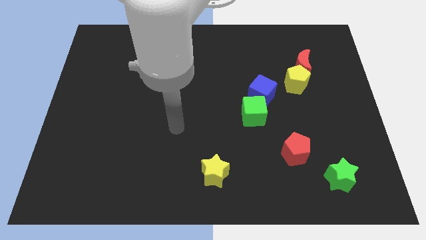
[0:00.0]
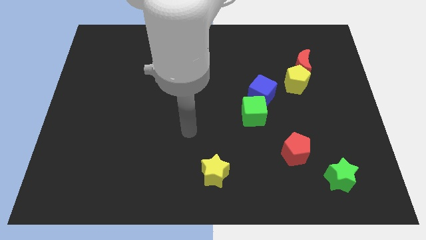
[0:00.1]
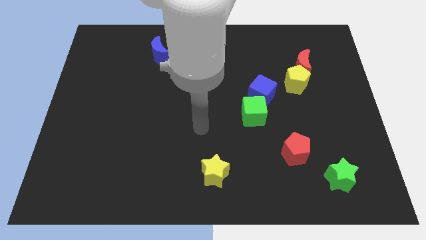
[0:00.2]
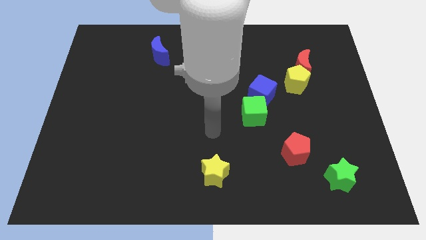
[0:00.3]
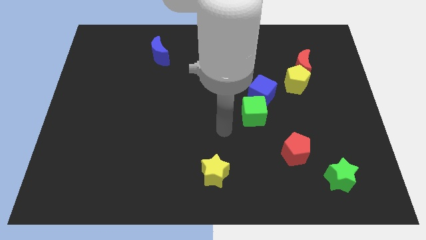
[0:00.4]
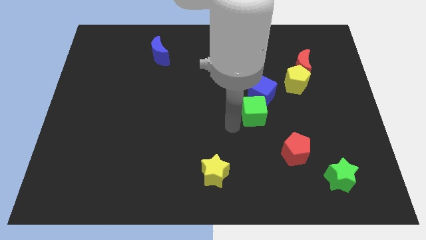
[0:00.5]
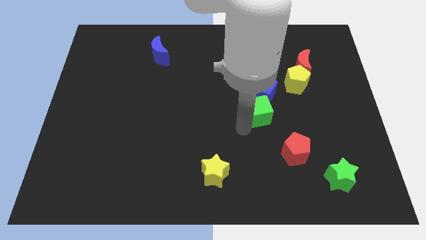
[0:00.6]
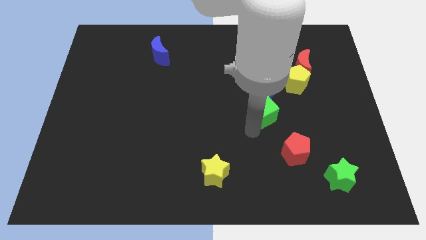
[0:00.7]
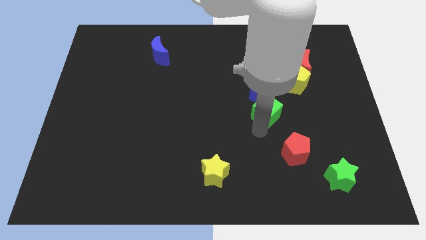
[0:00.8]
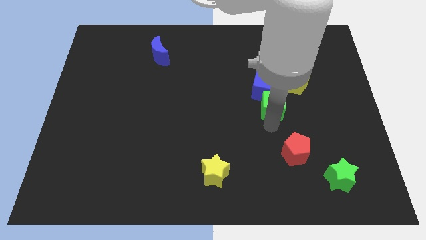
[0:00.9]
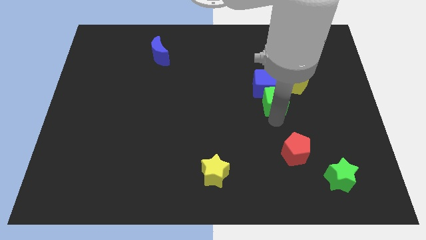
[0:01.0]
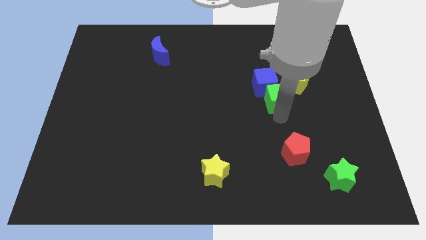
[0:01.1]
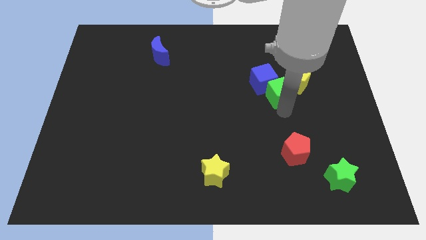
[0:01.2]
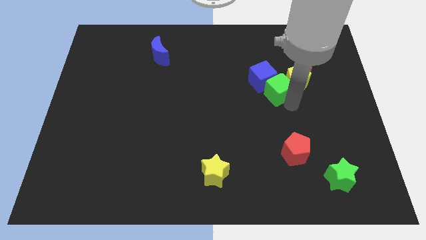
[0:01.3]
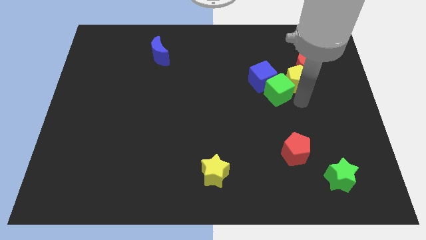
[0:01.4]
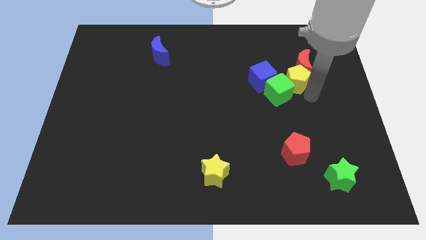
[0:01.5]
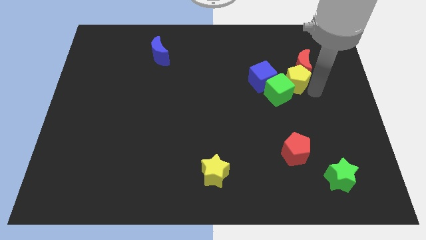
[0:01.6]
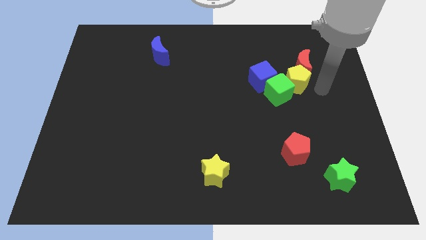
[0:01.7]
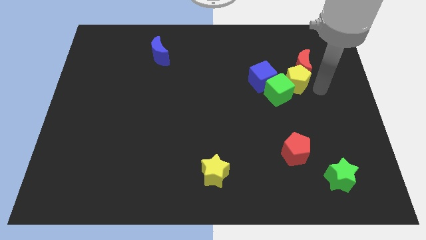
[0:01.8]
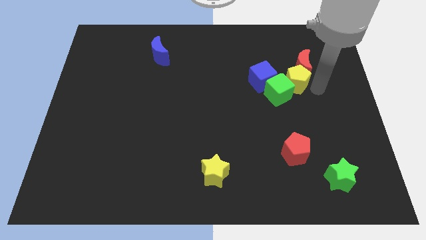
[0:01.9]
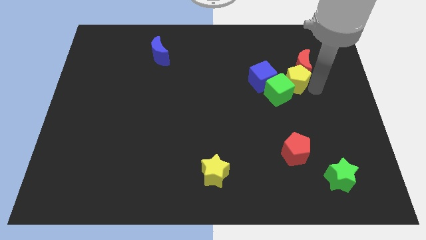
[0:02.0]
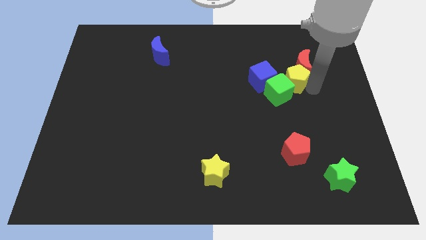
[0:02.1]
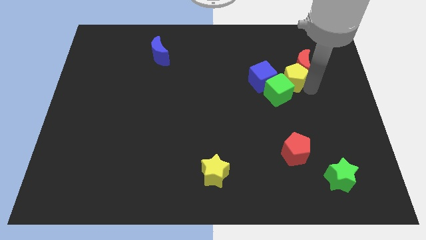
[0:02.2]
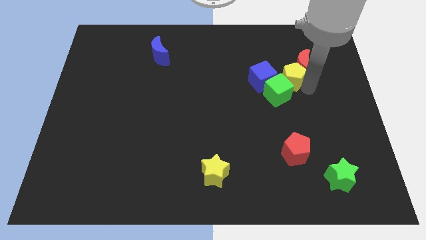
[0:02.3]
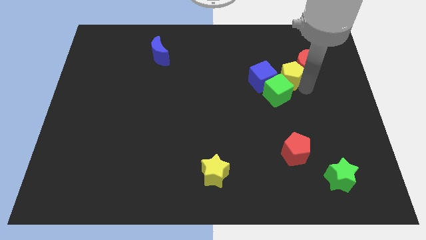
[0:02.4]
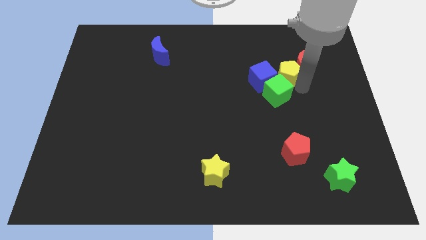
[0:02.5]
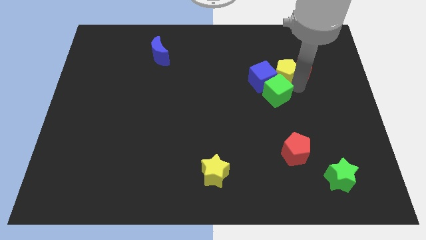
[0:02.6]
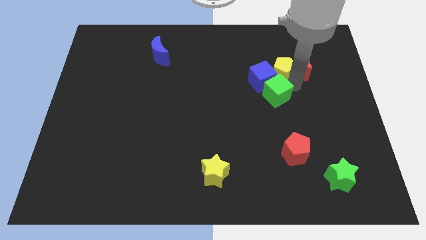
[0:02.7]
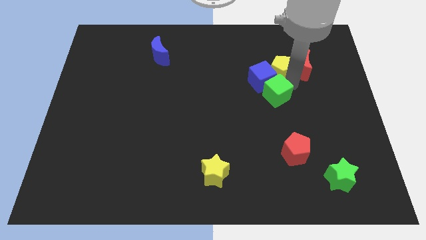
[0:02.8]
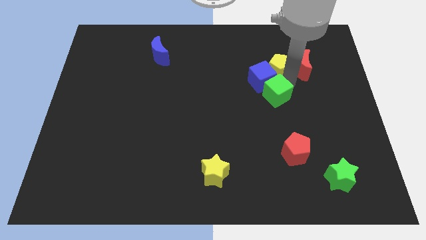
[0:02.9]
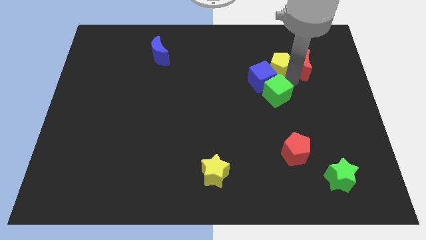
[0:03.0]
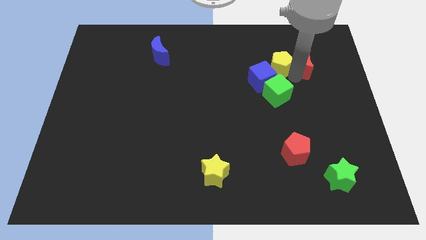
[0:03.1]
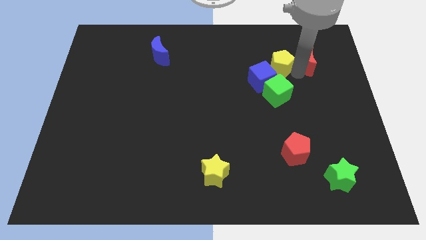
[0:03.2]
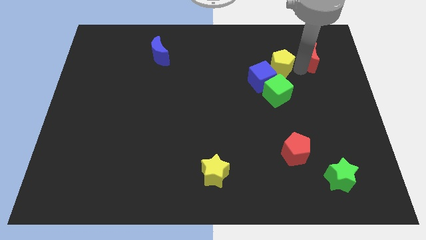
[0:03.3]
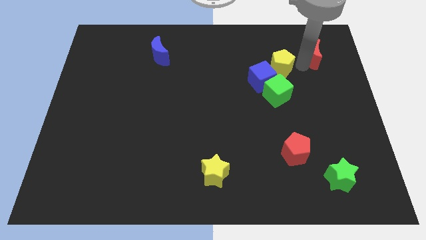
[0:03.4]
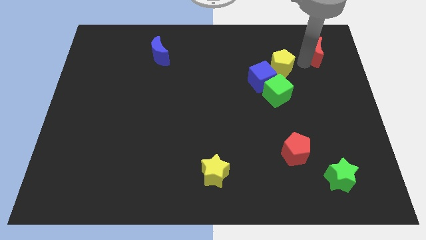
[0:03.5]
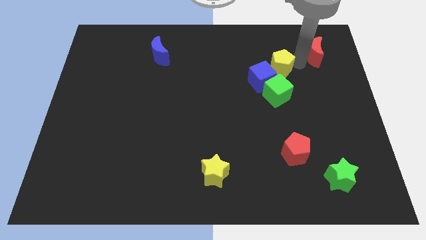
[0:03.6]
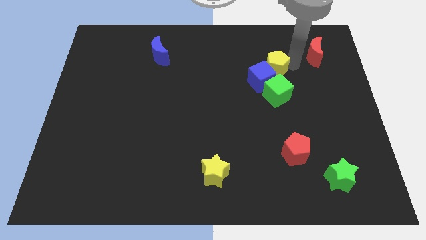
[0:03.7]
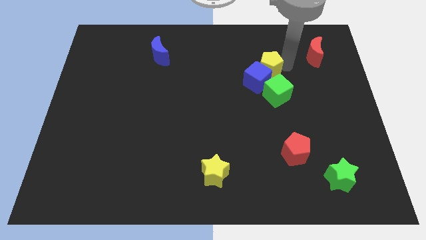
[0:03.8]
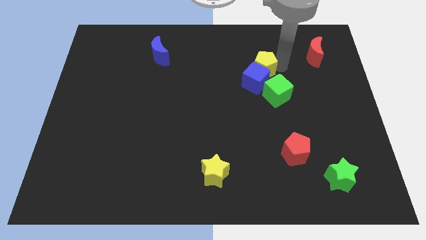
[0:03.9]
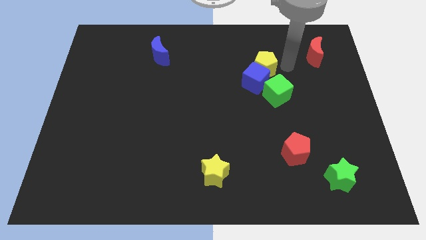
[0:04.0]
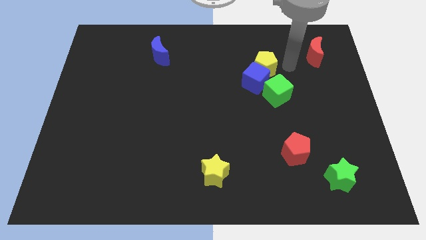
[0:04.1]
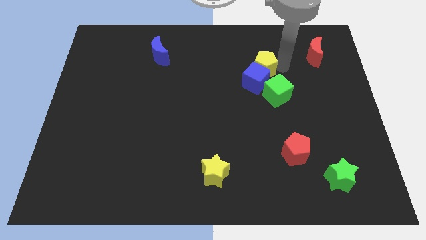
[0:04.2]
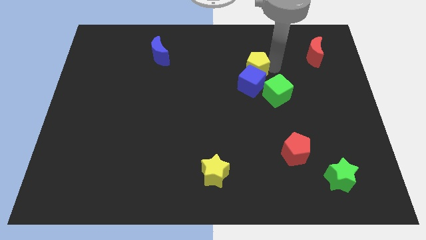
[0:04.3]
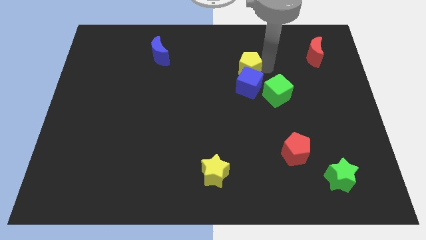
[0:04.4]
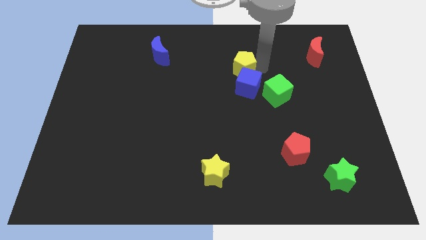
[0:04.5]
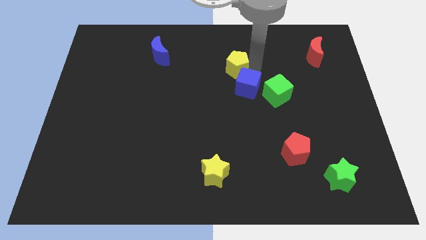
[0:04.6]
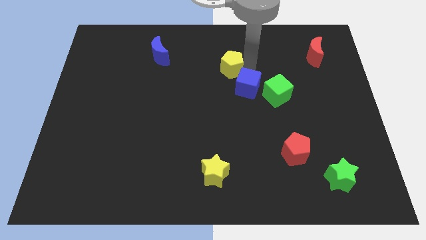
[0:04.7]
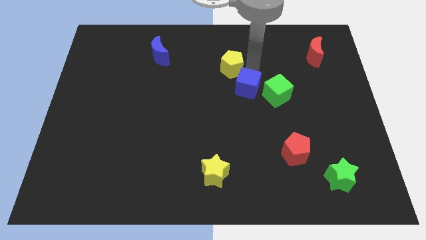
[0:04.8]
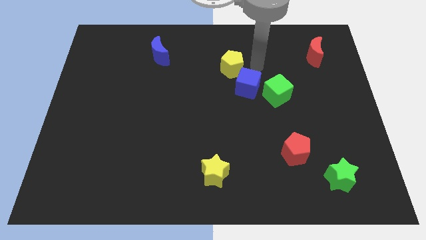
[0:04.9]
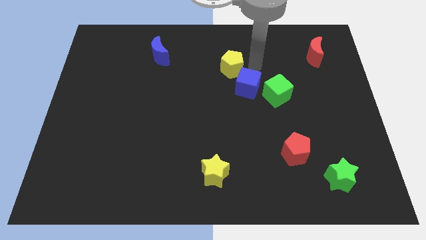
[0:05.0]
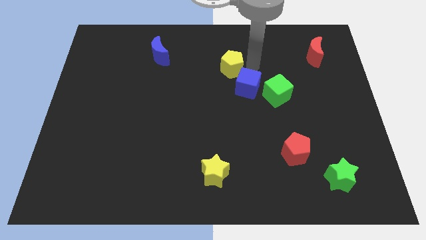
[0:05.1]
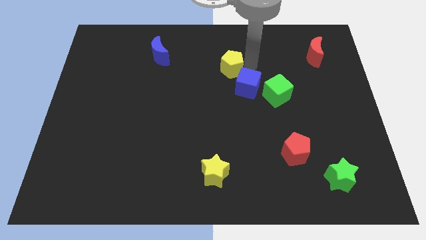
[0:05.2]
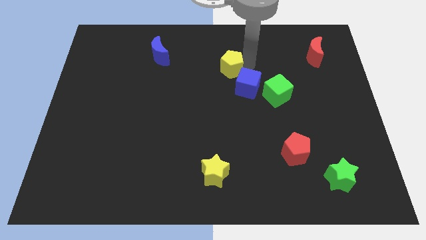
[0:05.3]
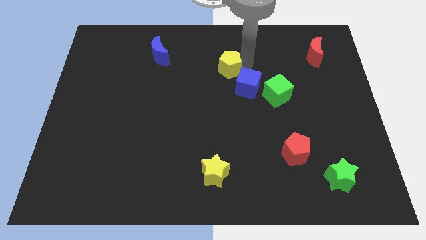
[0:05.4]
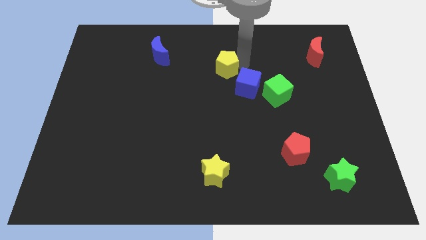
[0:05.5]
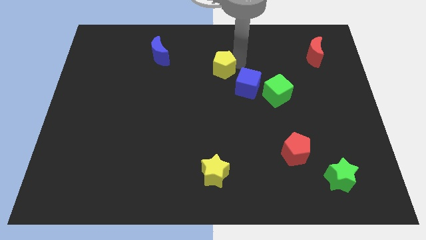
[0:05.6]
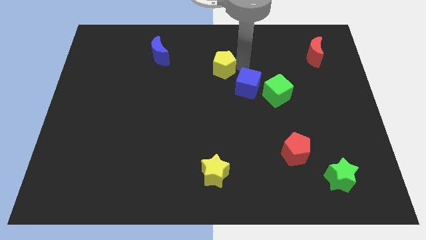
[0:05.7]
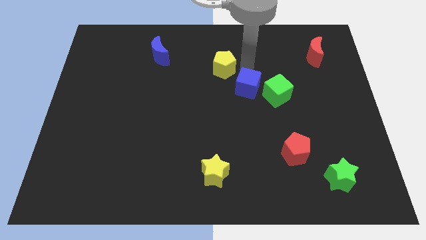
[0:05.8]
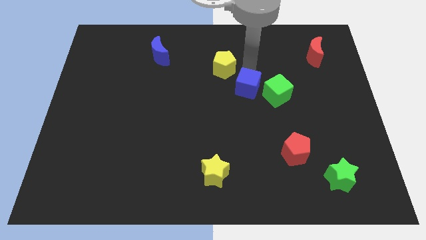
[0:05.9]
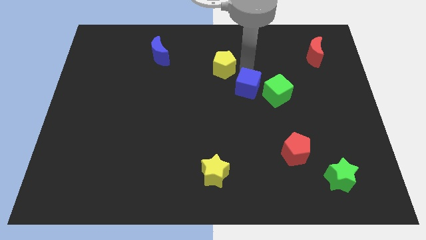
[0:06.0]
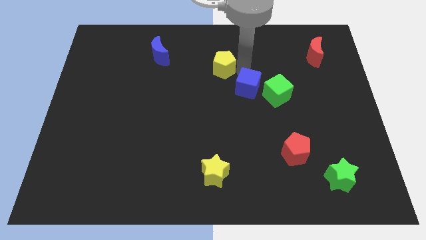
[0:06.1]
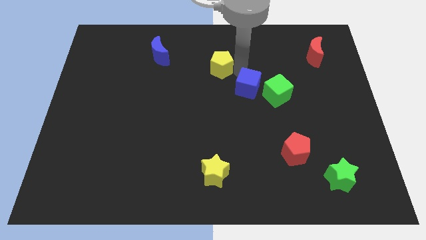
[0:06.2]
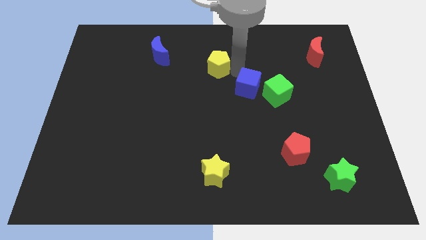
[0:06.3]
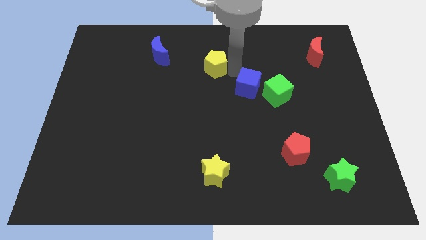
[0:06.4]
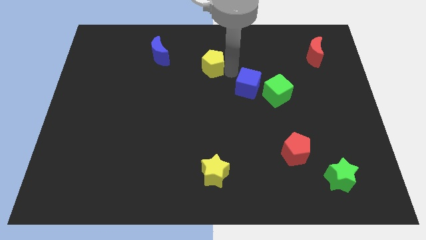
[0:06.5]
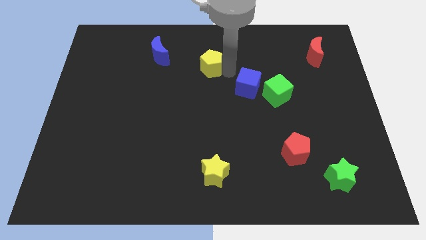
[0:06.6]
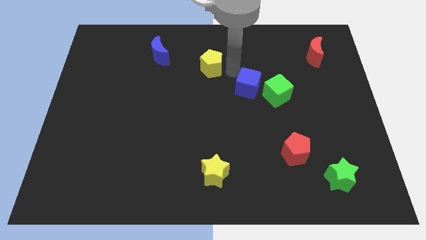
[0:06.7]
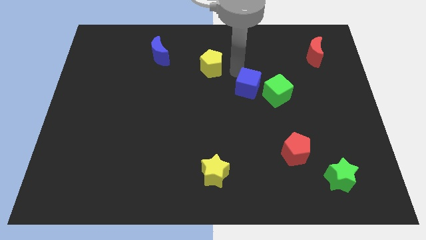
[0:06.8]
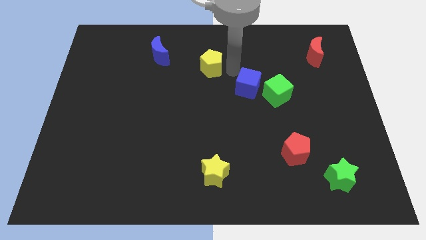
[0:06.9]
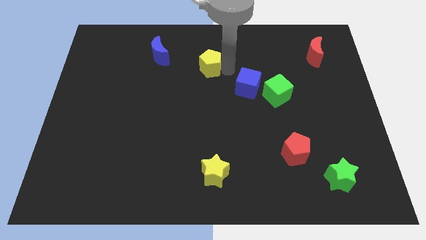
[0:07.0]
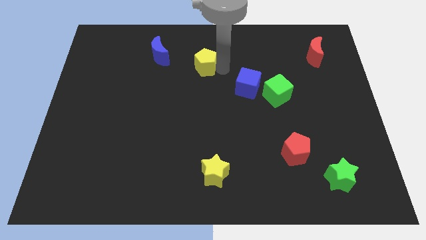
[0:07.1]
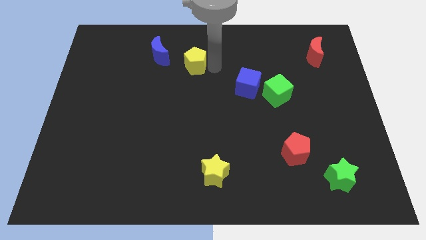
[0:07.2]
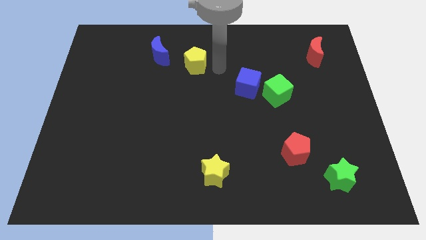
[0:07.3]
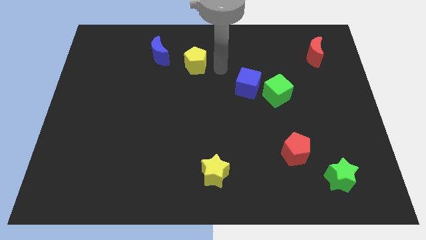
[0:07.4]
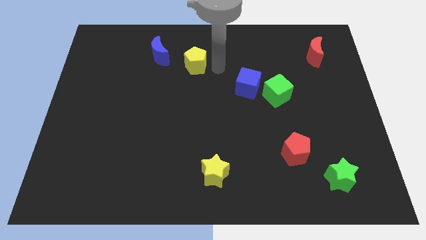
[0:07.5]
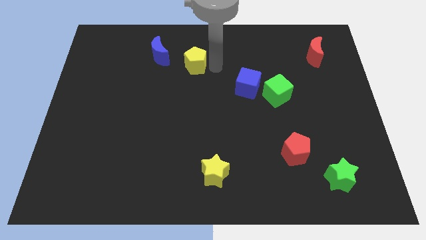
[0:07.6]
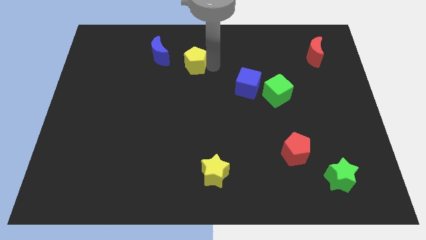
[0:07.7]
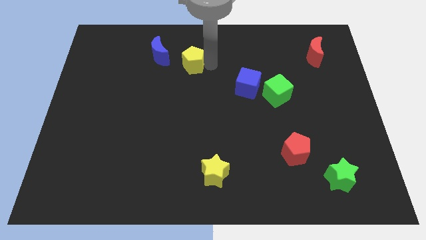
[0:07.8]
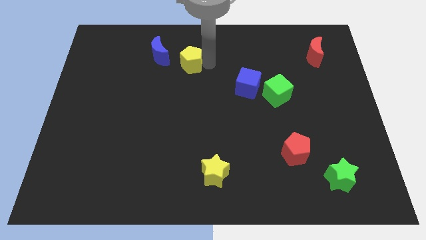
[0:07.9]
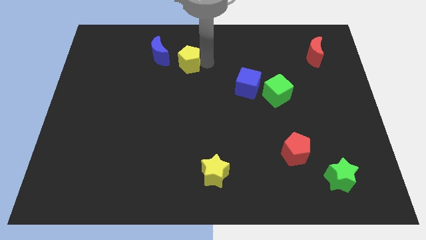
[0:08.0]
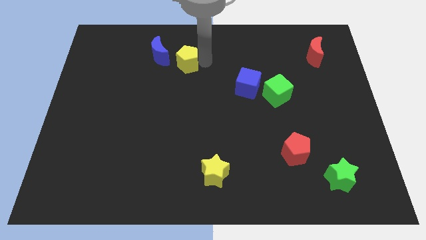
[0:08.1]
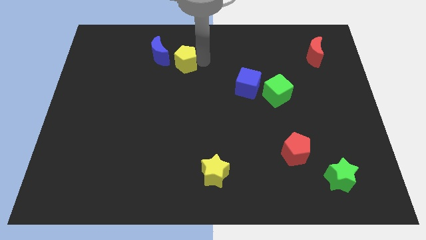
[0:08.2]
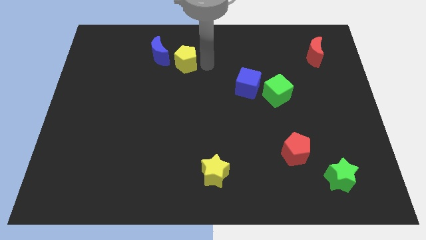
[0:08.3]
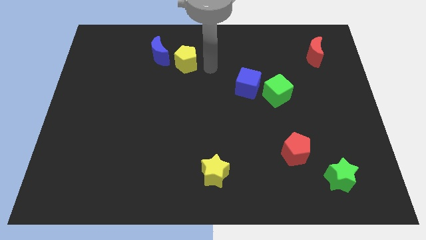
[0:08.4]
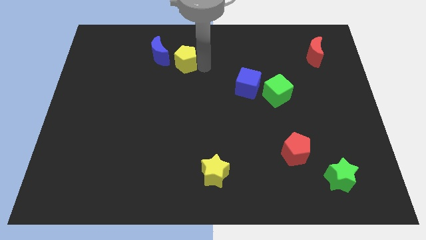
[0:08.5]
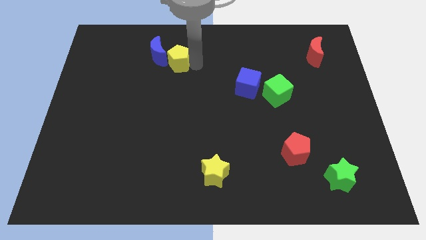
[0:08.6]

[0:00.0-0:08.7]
push the yellow pentagon towards the blue moon
